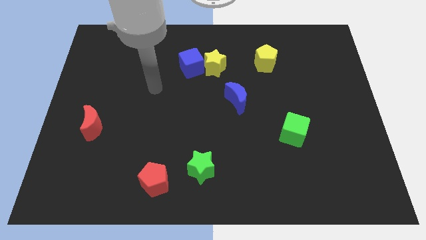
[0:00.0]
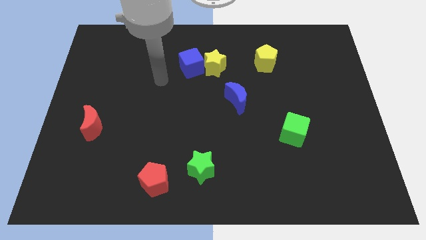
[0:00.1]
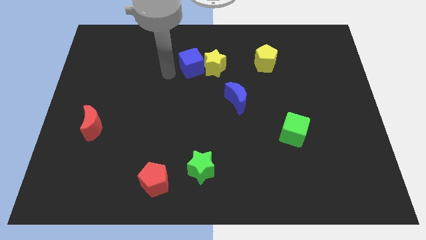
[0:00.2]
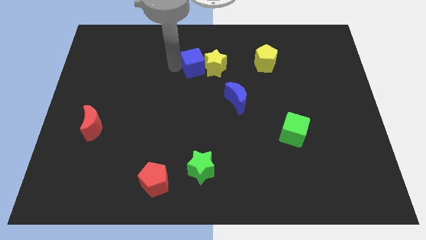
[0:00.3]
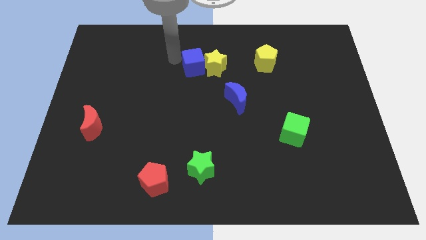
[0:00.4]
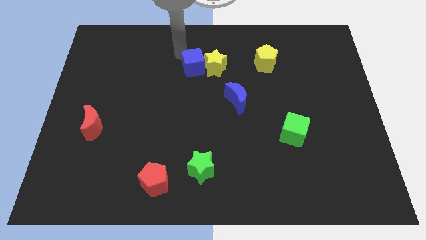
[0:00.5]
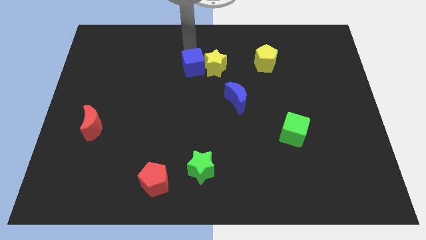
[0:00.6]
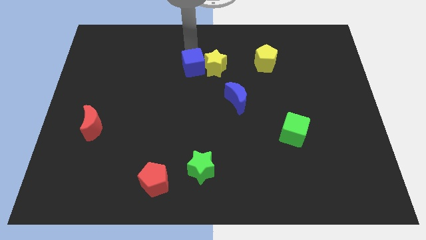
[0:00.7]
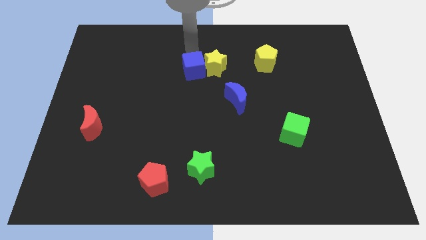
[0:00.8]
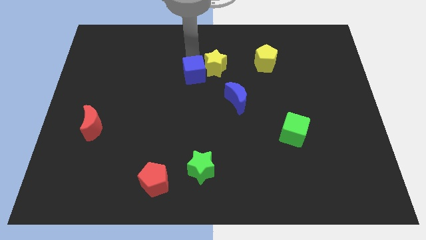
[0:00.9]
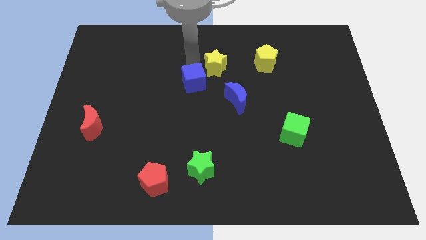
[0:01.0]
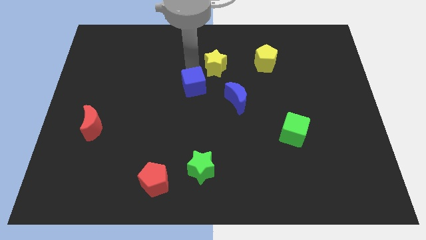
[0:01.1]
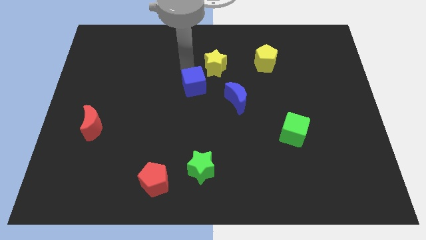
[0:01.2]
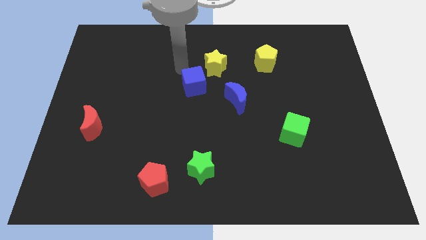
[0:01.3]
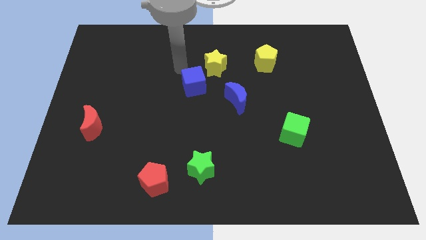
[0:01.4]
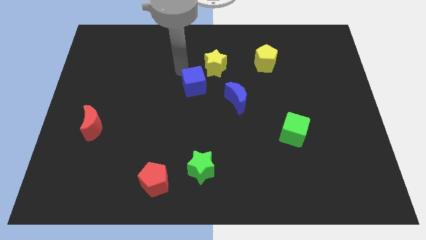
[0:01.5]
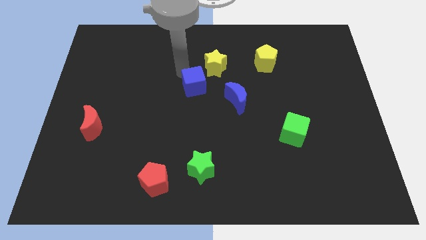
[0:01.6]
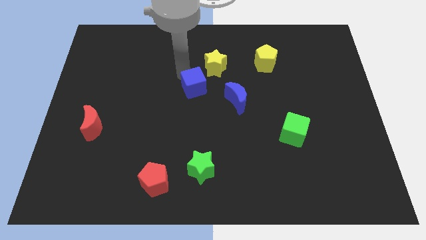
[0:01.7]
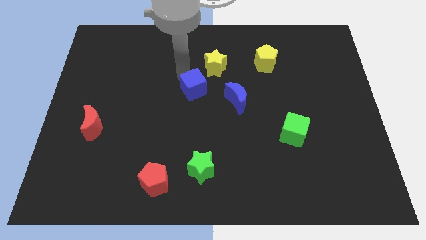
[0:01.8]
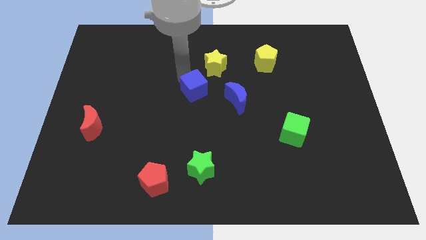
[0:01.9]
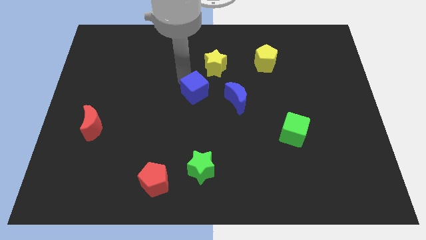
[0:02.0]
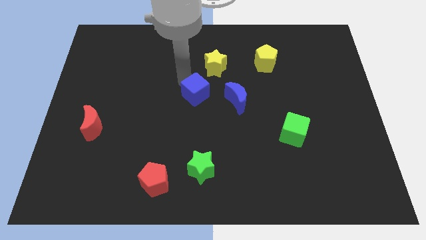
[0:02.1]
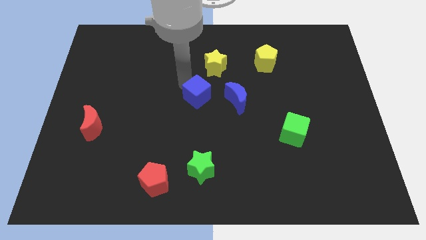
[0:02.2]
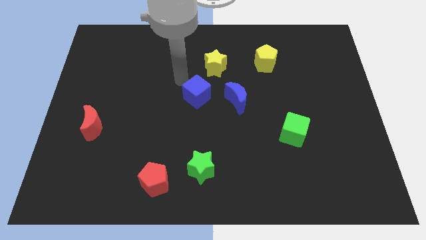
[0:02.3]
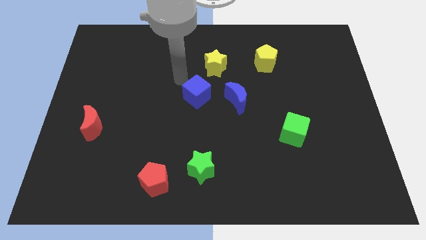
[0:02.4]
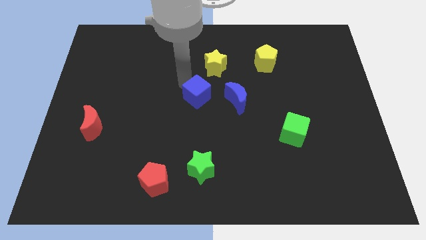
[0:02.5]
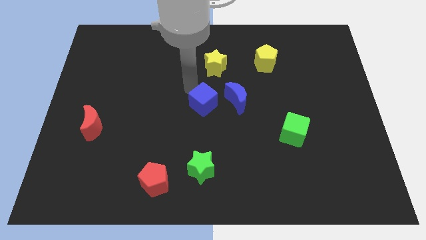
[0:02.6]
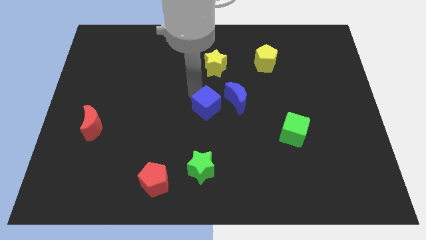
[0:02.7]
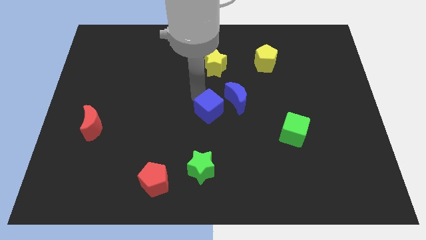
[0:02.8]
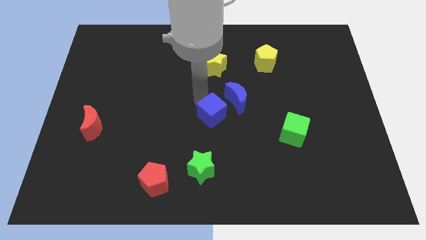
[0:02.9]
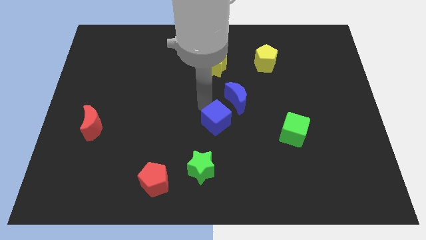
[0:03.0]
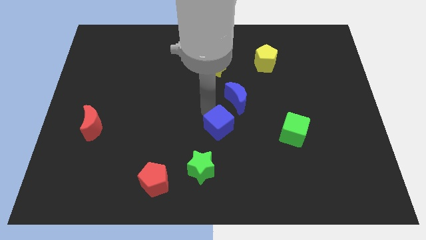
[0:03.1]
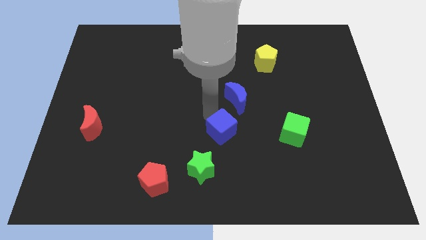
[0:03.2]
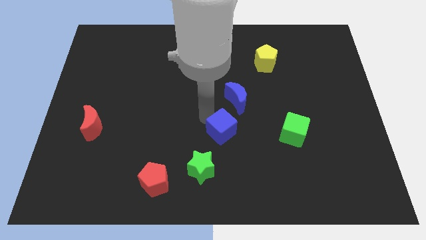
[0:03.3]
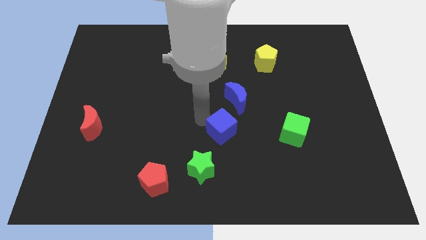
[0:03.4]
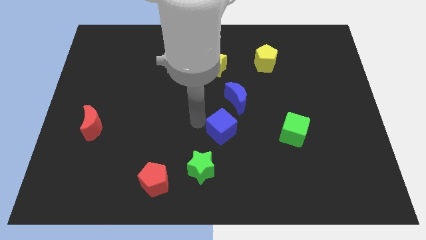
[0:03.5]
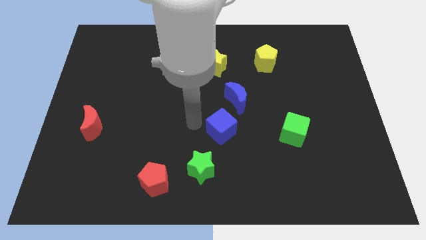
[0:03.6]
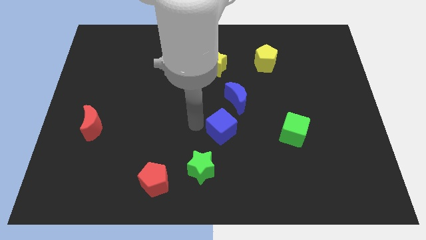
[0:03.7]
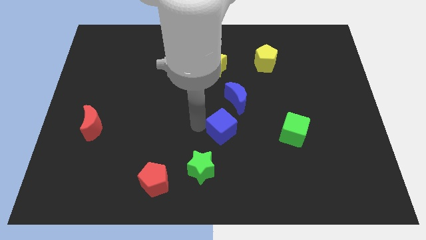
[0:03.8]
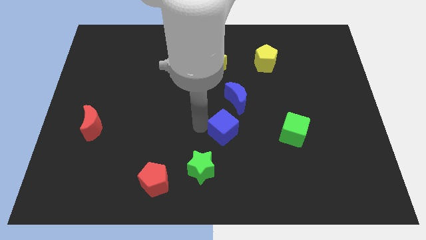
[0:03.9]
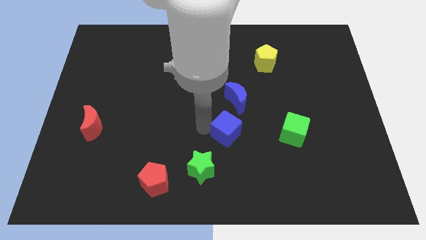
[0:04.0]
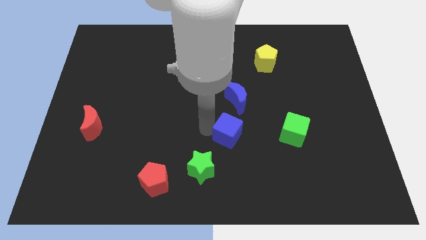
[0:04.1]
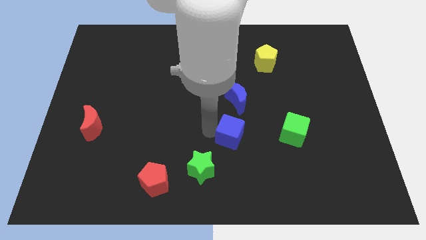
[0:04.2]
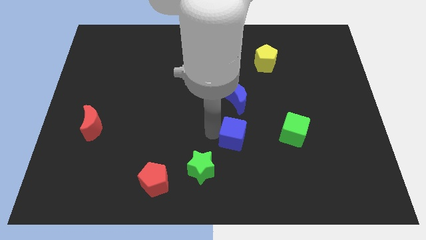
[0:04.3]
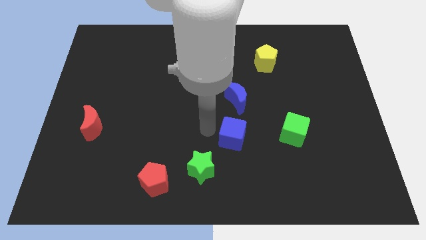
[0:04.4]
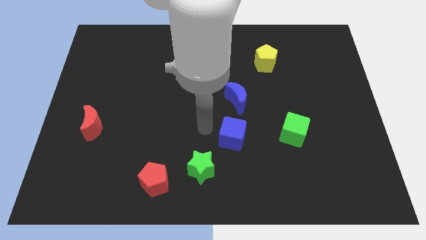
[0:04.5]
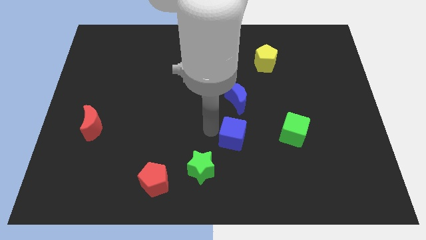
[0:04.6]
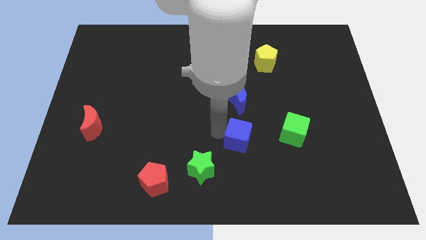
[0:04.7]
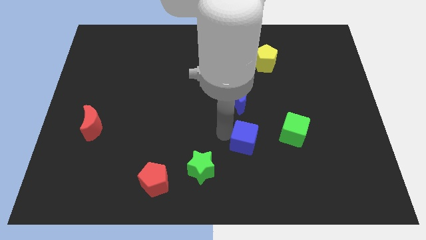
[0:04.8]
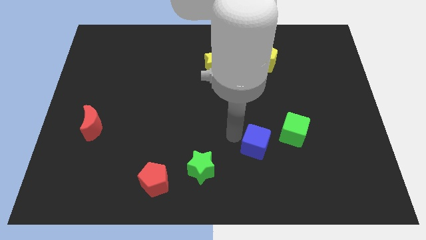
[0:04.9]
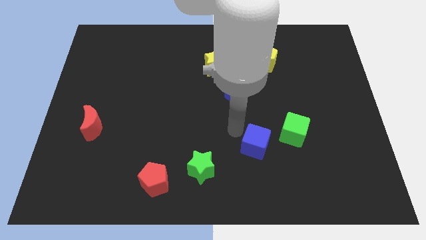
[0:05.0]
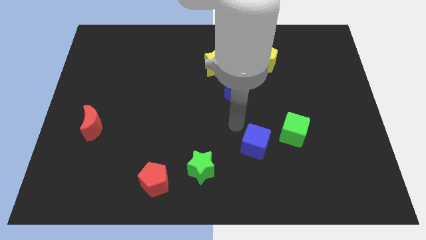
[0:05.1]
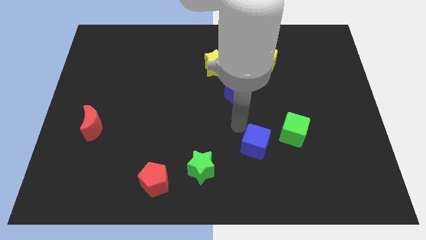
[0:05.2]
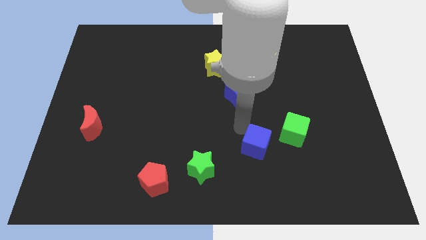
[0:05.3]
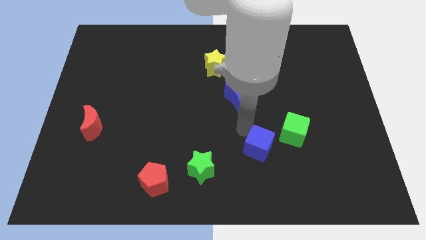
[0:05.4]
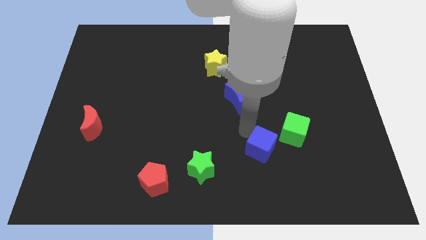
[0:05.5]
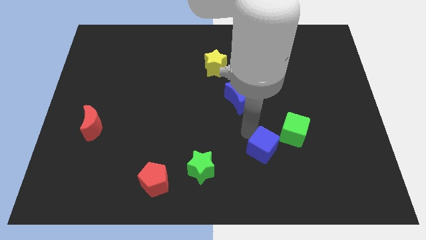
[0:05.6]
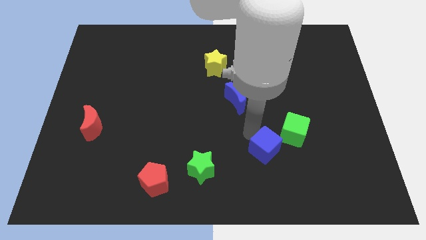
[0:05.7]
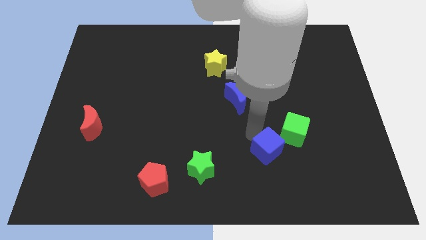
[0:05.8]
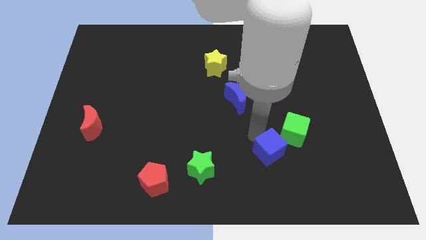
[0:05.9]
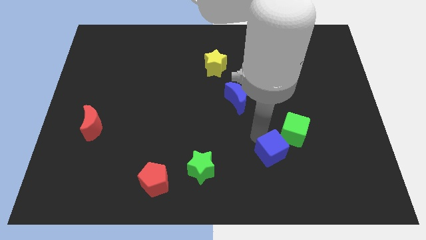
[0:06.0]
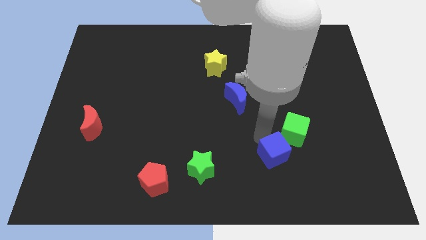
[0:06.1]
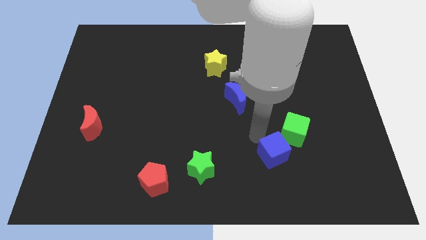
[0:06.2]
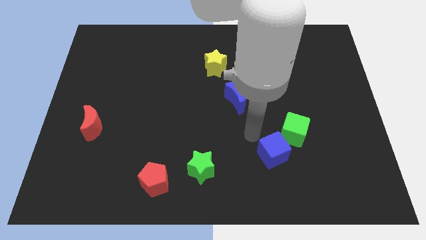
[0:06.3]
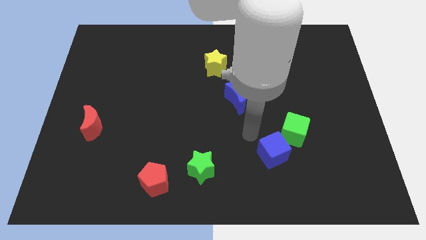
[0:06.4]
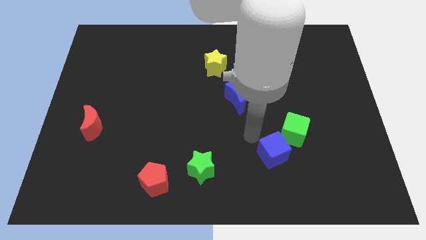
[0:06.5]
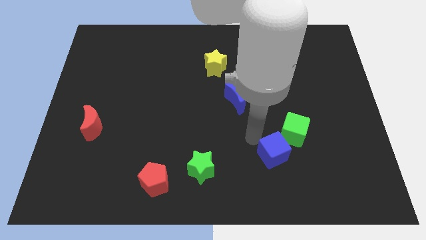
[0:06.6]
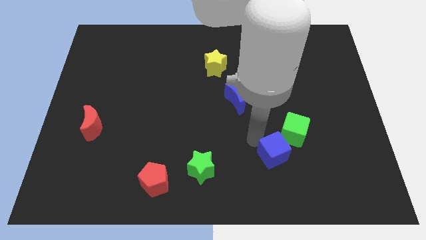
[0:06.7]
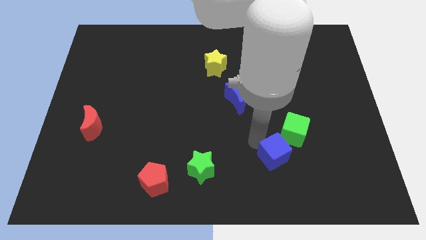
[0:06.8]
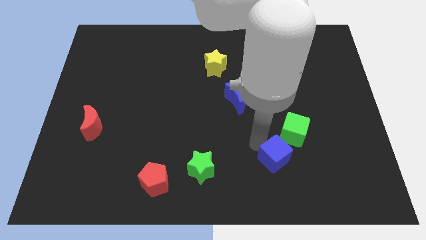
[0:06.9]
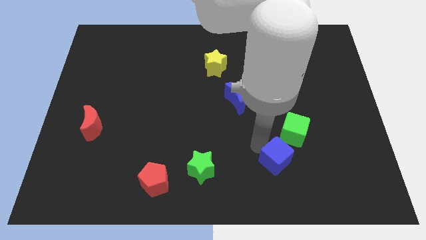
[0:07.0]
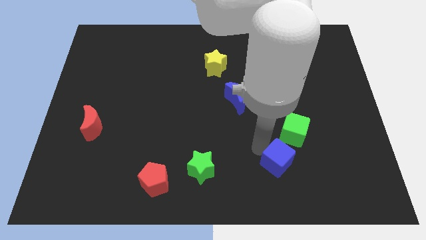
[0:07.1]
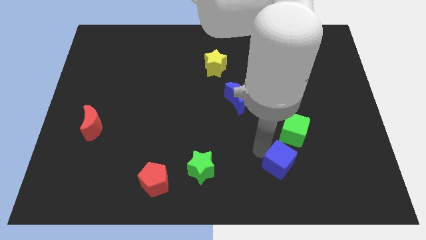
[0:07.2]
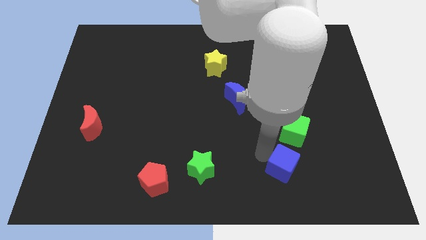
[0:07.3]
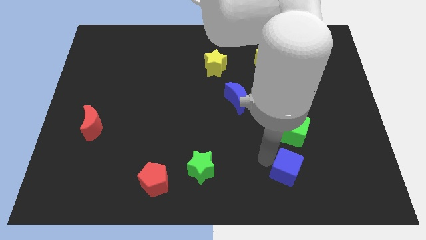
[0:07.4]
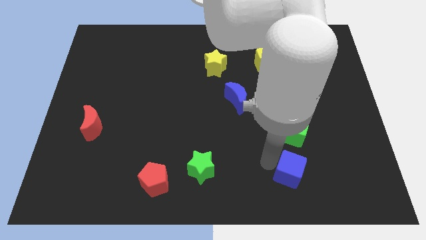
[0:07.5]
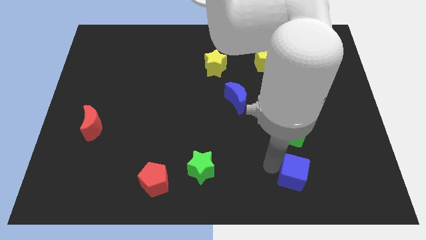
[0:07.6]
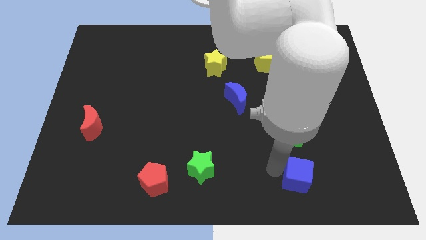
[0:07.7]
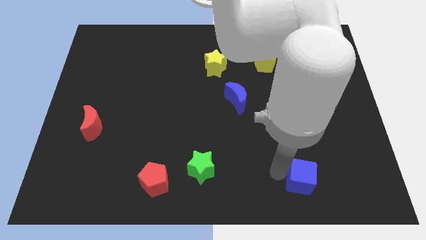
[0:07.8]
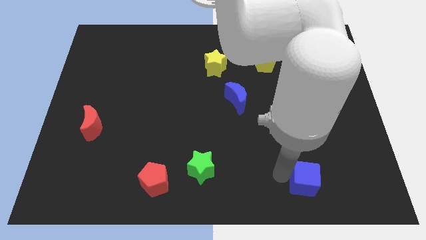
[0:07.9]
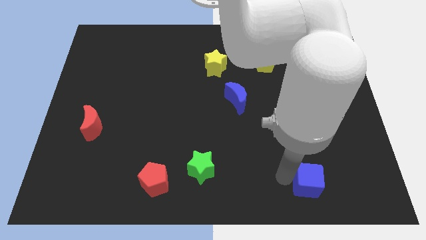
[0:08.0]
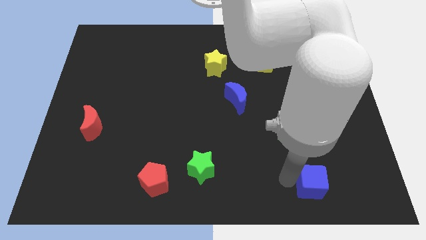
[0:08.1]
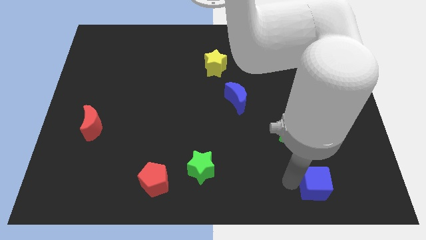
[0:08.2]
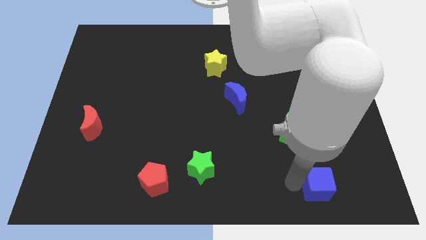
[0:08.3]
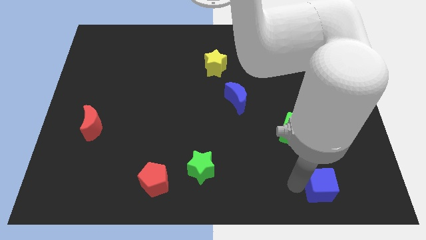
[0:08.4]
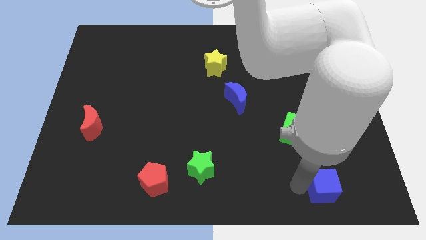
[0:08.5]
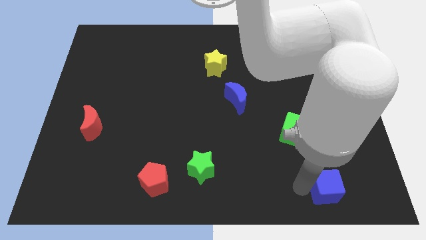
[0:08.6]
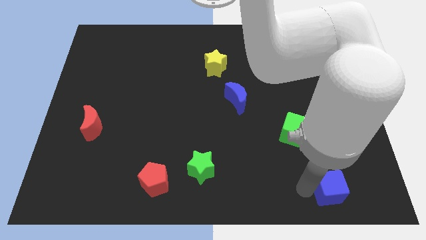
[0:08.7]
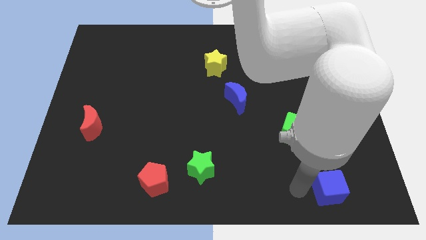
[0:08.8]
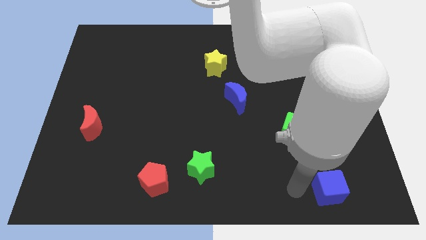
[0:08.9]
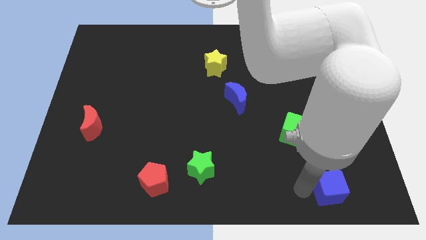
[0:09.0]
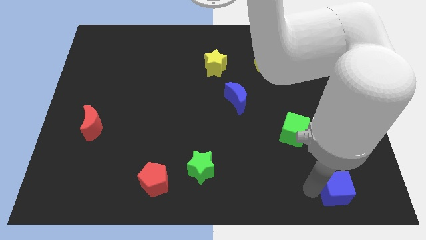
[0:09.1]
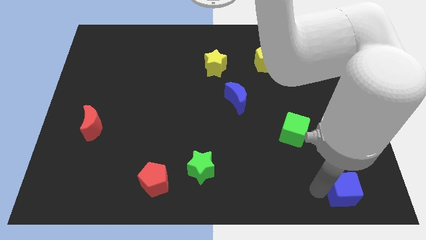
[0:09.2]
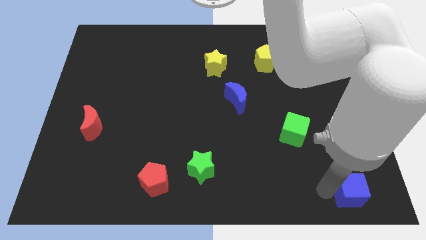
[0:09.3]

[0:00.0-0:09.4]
push the blue cube to the bottom right
